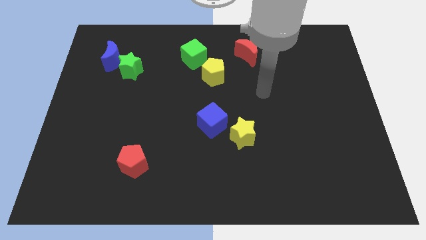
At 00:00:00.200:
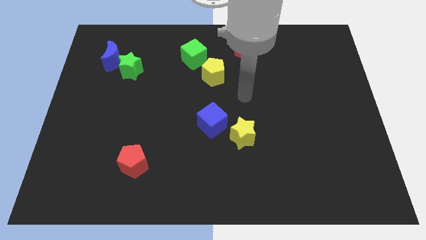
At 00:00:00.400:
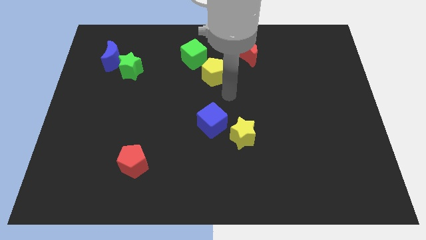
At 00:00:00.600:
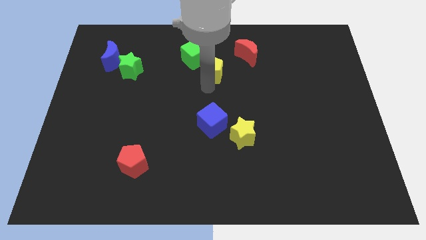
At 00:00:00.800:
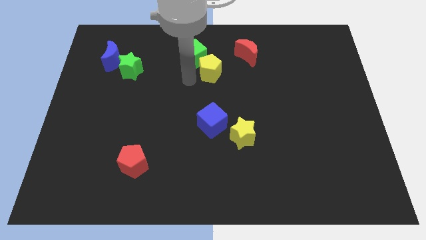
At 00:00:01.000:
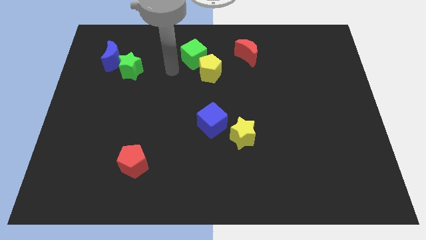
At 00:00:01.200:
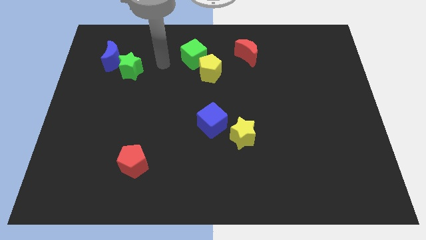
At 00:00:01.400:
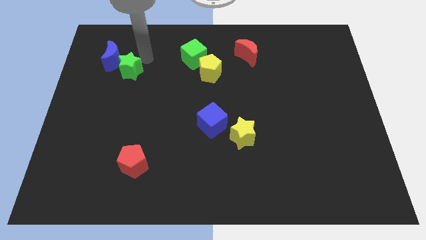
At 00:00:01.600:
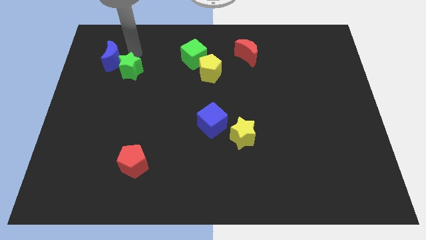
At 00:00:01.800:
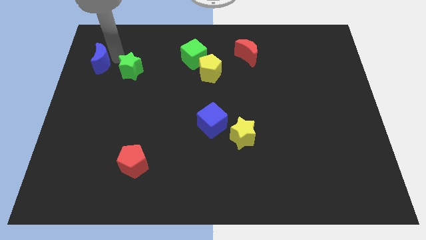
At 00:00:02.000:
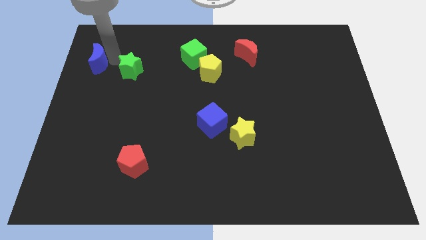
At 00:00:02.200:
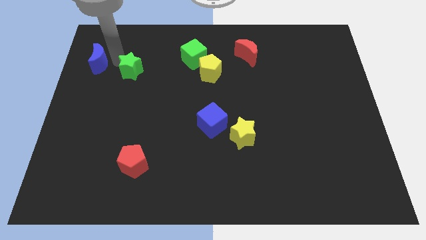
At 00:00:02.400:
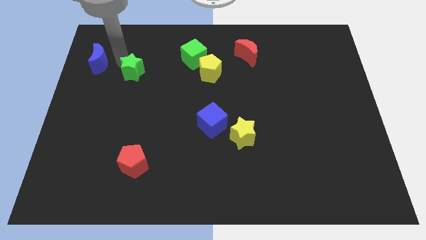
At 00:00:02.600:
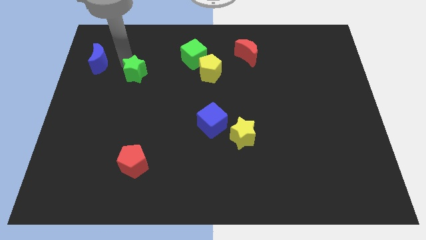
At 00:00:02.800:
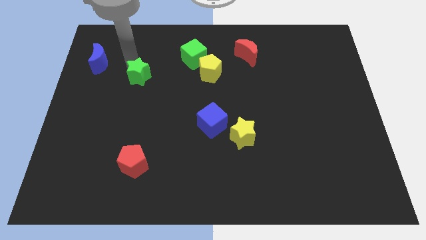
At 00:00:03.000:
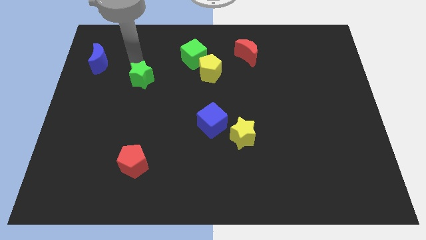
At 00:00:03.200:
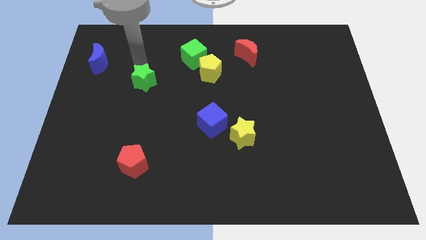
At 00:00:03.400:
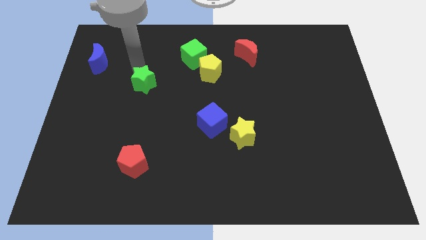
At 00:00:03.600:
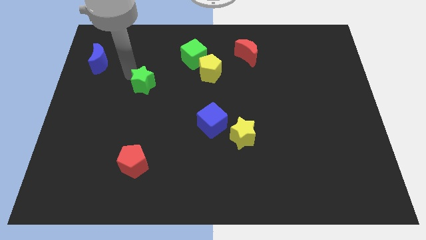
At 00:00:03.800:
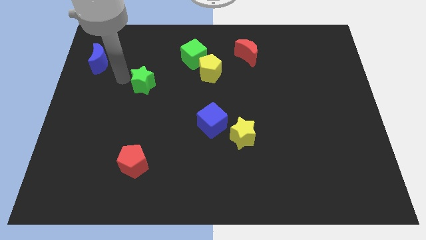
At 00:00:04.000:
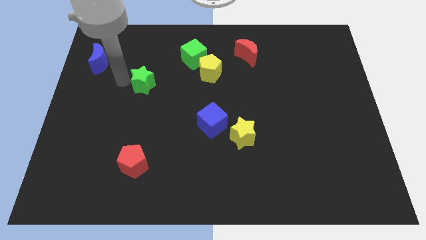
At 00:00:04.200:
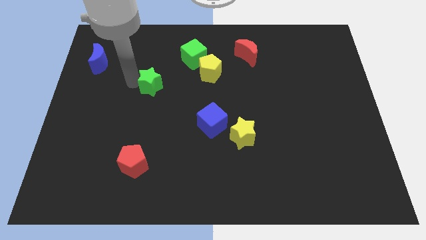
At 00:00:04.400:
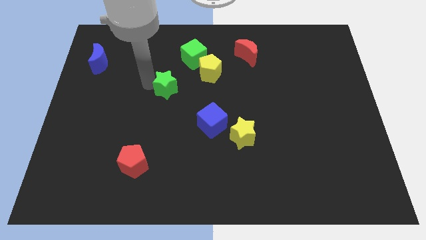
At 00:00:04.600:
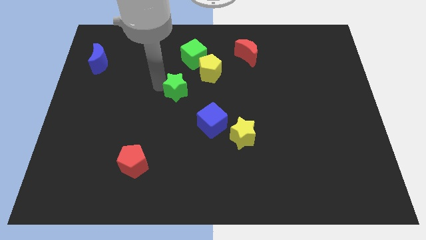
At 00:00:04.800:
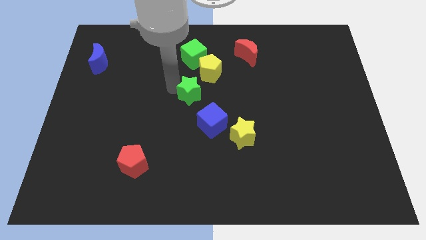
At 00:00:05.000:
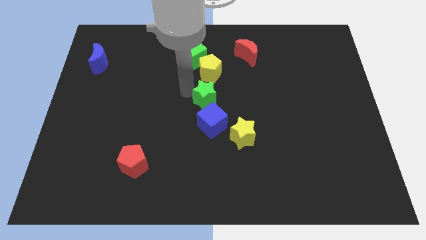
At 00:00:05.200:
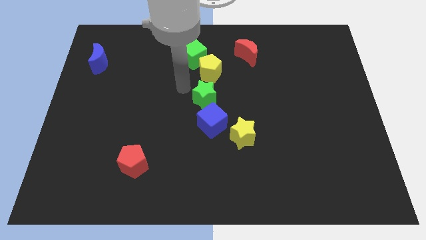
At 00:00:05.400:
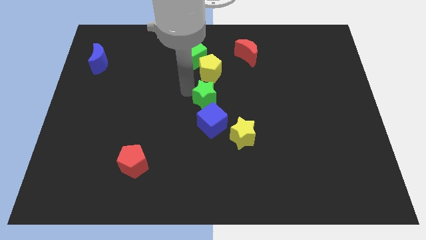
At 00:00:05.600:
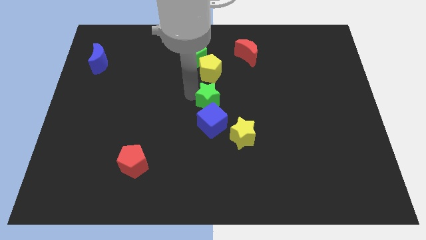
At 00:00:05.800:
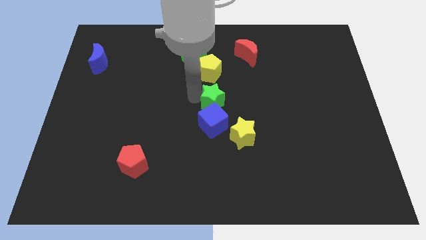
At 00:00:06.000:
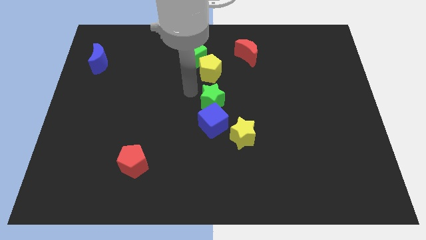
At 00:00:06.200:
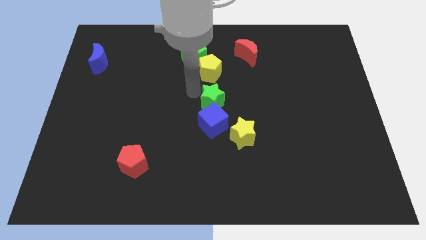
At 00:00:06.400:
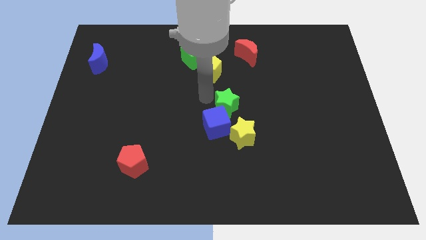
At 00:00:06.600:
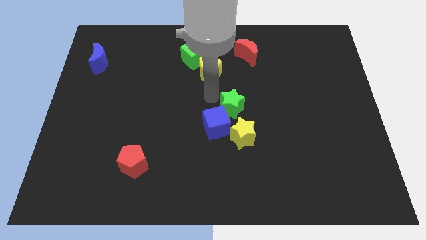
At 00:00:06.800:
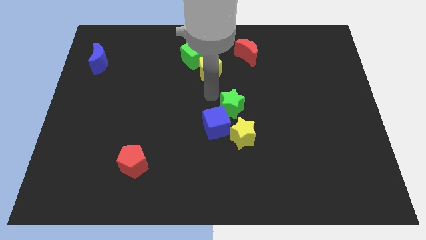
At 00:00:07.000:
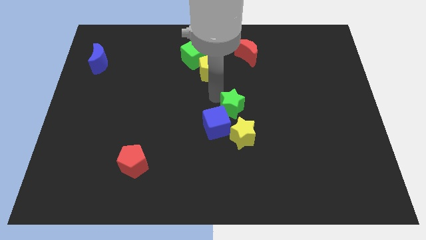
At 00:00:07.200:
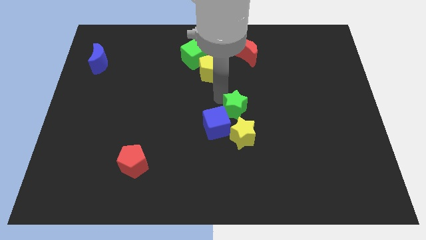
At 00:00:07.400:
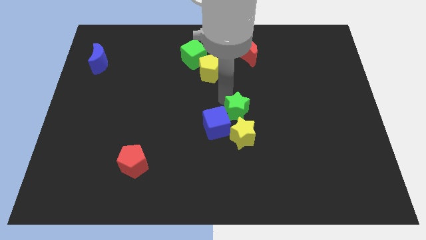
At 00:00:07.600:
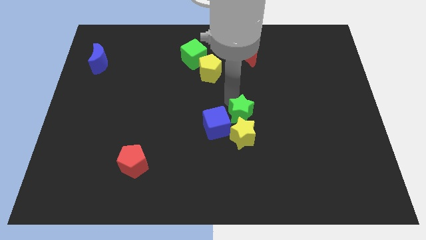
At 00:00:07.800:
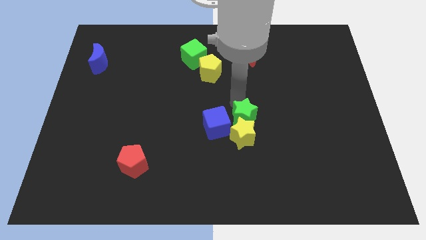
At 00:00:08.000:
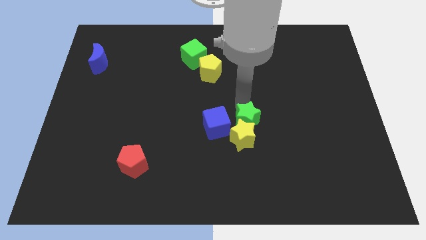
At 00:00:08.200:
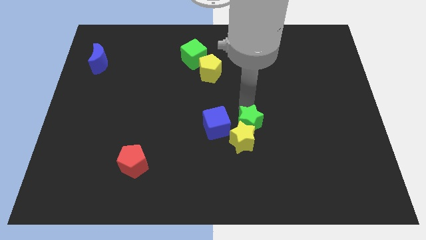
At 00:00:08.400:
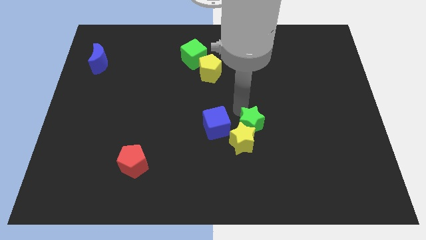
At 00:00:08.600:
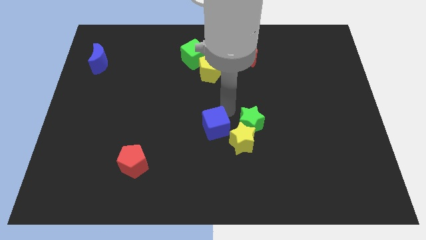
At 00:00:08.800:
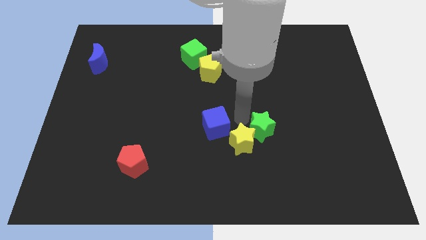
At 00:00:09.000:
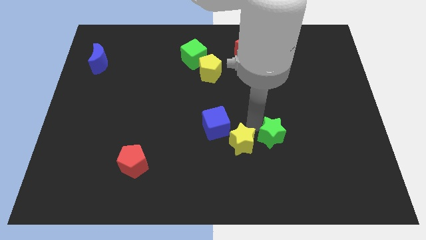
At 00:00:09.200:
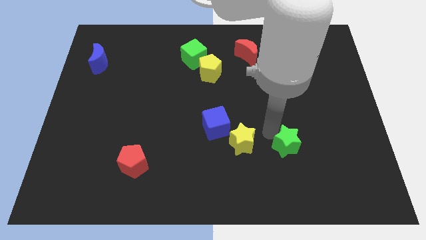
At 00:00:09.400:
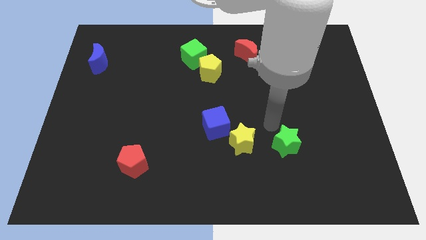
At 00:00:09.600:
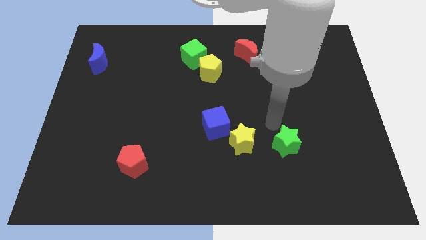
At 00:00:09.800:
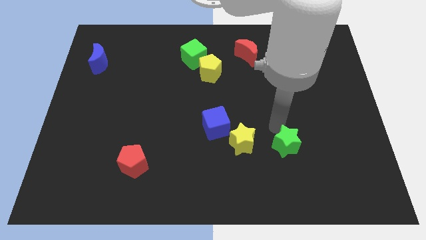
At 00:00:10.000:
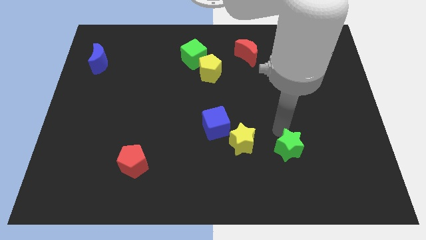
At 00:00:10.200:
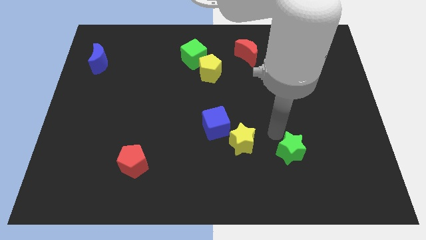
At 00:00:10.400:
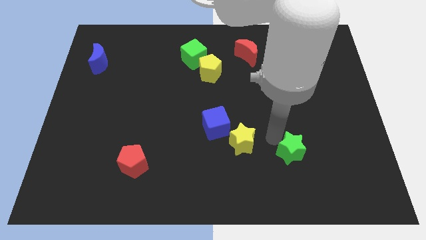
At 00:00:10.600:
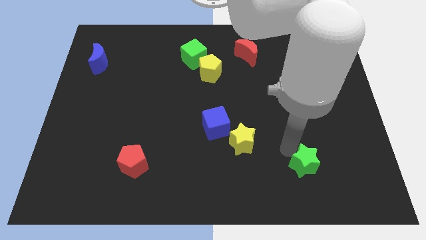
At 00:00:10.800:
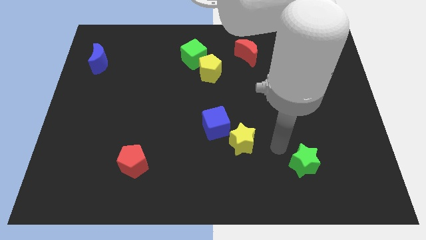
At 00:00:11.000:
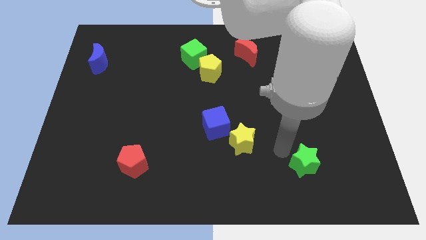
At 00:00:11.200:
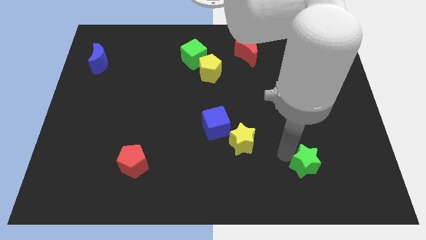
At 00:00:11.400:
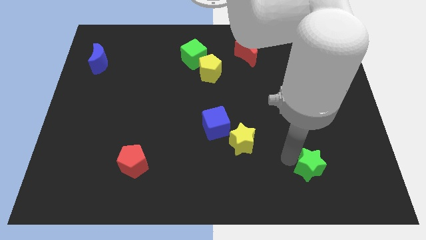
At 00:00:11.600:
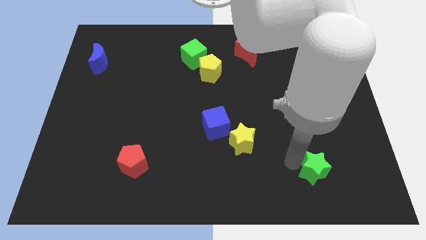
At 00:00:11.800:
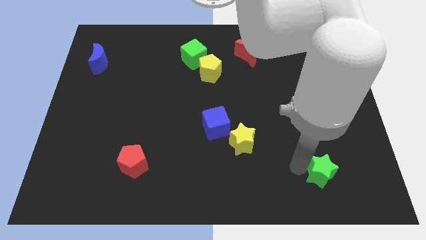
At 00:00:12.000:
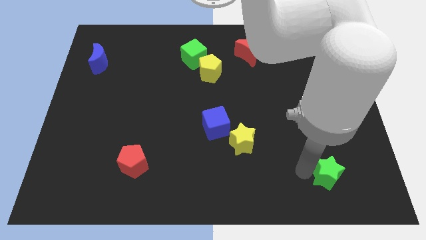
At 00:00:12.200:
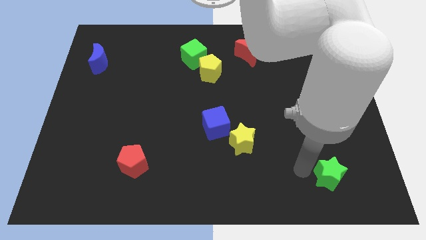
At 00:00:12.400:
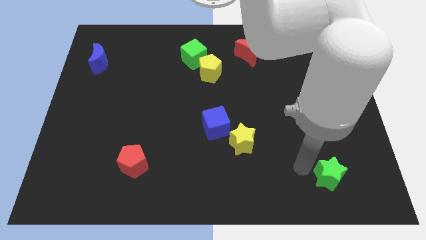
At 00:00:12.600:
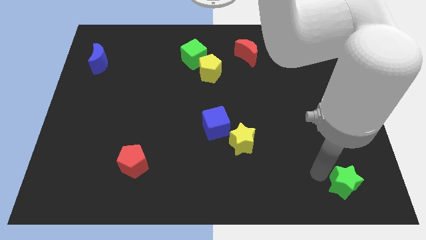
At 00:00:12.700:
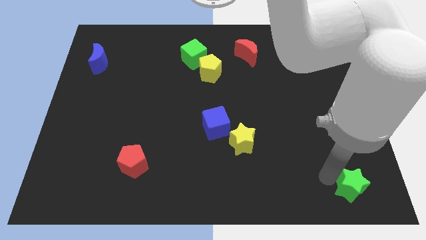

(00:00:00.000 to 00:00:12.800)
put the green star to the lower right corner
